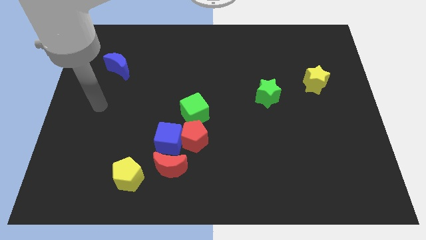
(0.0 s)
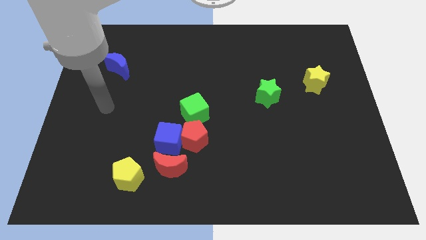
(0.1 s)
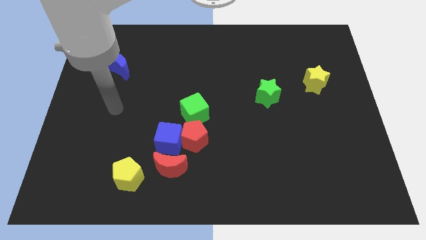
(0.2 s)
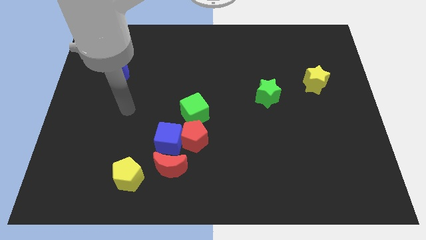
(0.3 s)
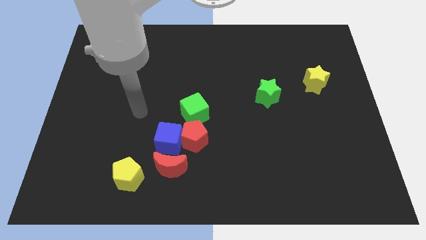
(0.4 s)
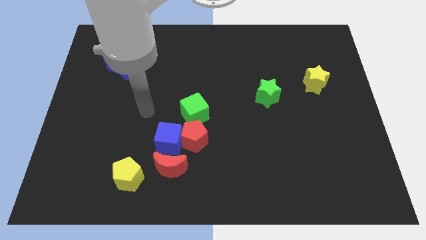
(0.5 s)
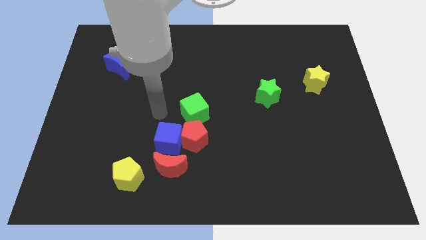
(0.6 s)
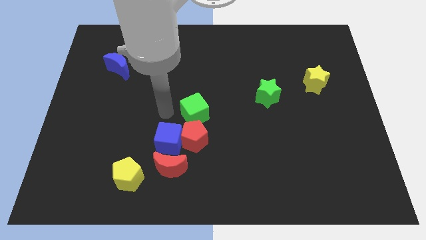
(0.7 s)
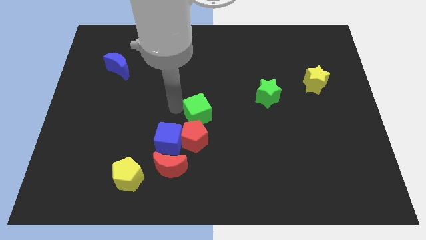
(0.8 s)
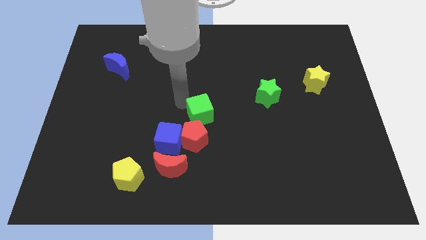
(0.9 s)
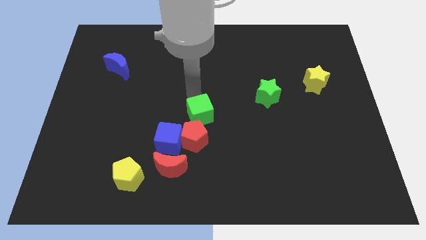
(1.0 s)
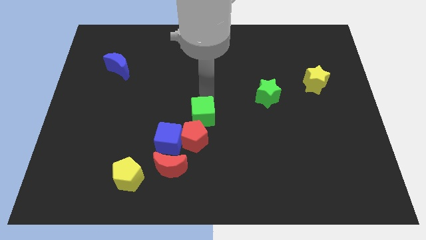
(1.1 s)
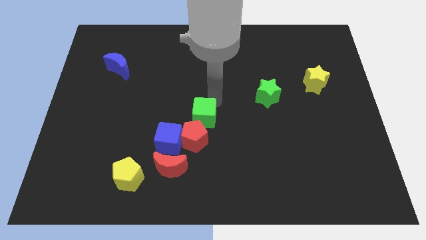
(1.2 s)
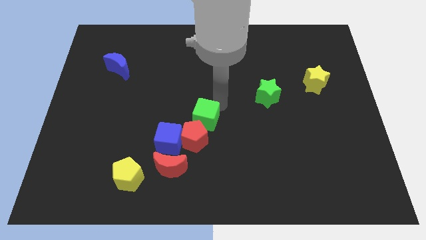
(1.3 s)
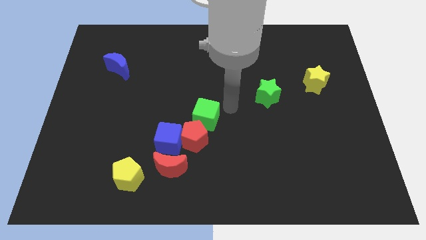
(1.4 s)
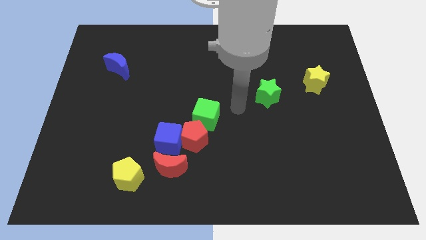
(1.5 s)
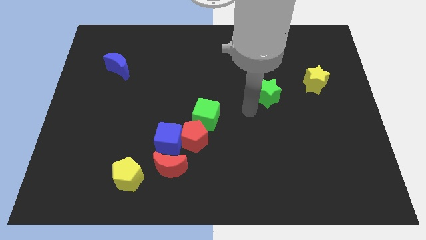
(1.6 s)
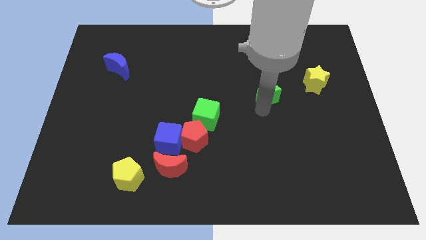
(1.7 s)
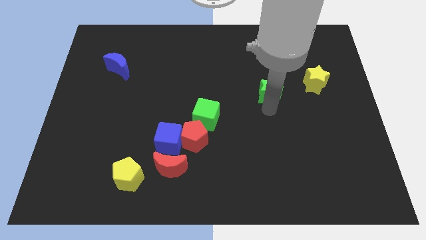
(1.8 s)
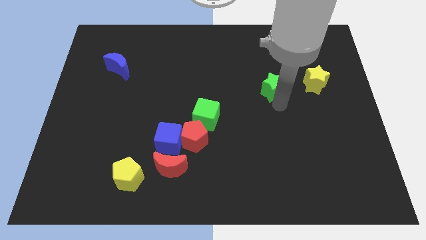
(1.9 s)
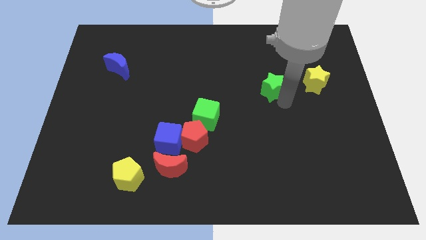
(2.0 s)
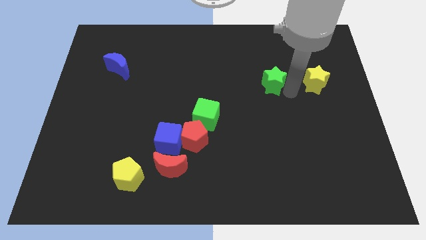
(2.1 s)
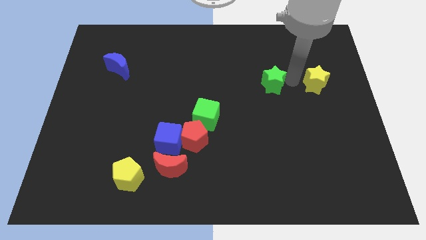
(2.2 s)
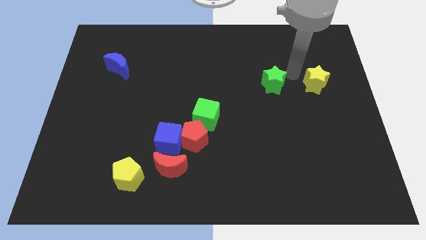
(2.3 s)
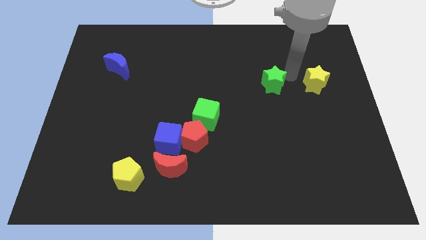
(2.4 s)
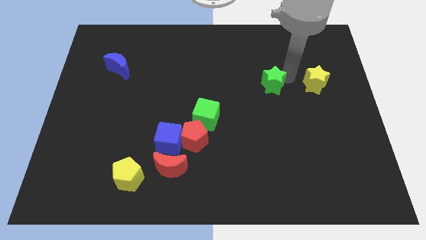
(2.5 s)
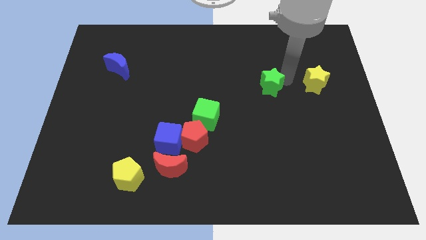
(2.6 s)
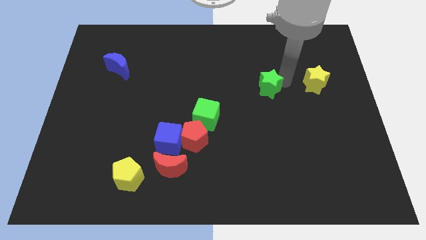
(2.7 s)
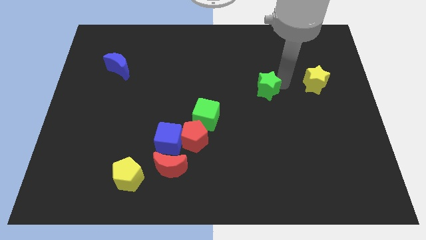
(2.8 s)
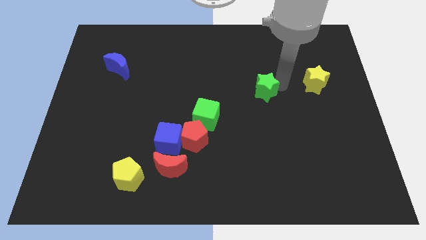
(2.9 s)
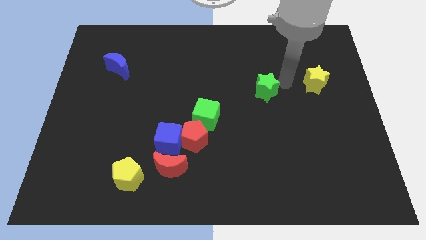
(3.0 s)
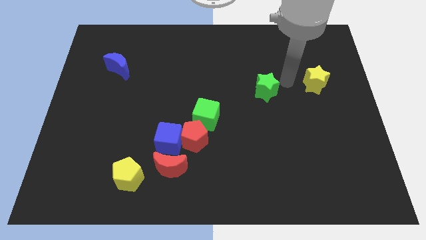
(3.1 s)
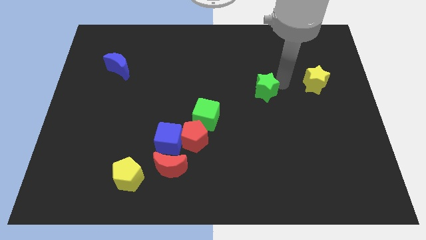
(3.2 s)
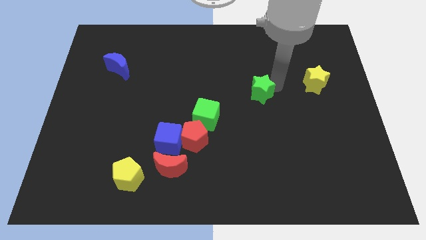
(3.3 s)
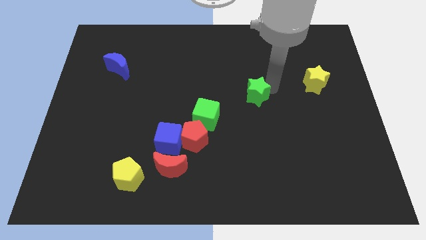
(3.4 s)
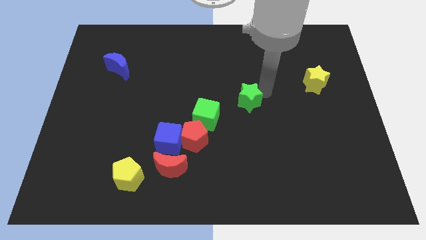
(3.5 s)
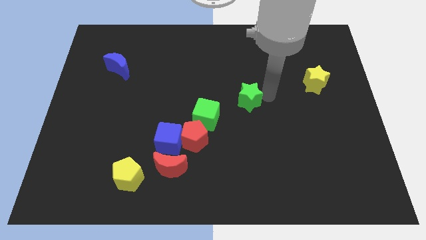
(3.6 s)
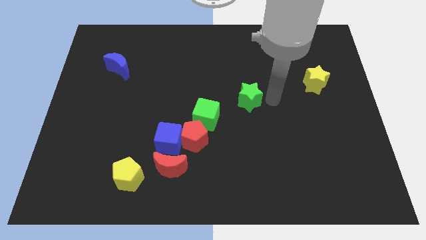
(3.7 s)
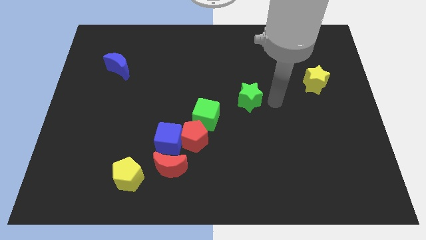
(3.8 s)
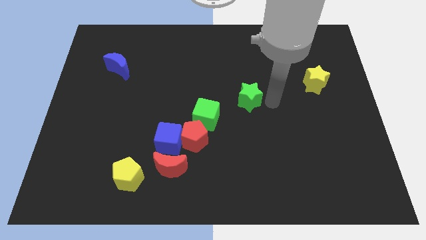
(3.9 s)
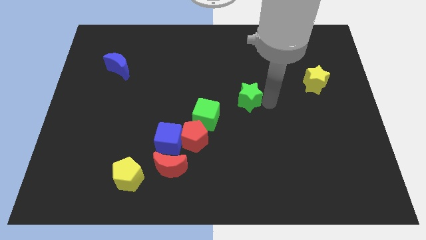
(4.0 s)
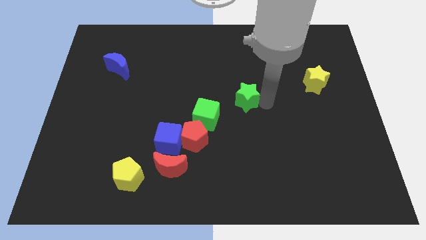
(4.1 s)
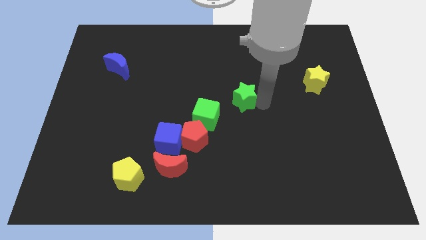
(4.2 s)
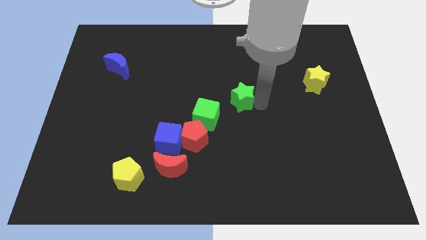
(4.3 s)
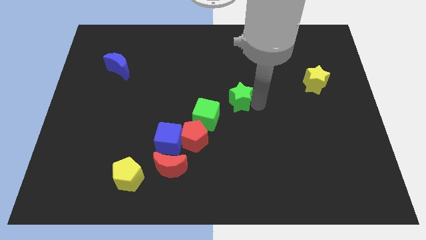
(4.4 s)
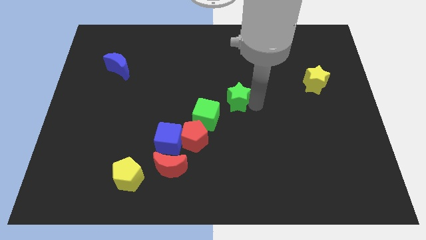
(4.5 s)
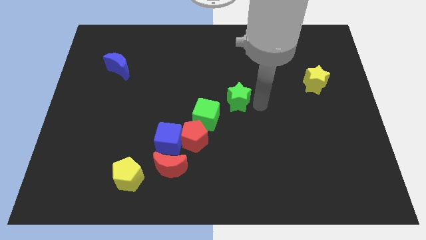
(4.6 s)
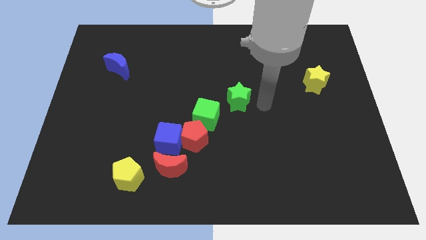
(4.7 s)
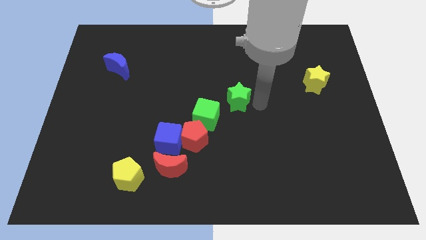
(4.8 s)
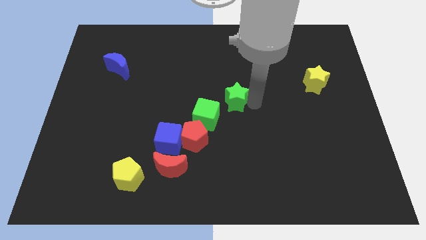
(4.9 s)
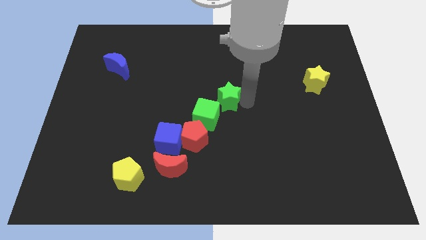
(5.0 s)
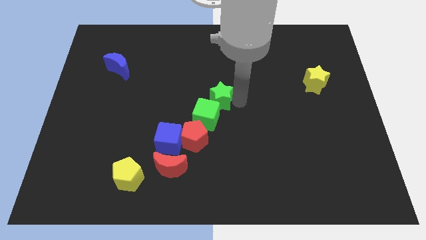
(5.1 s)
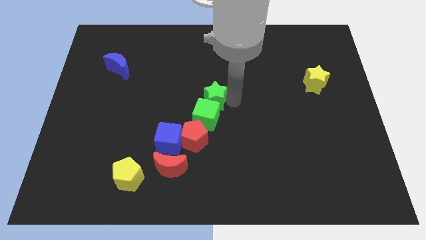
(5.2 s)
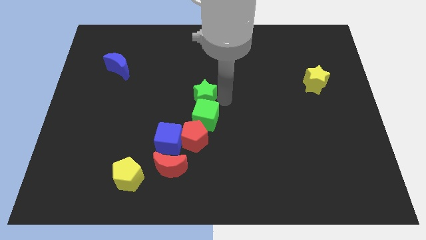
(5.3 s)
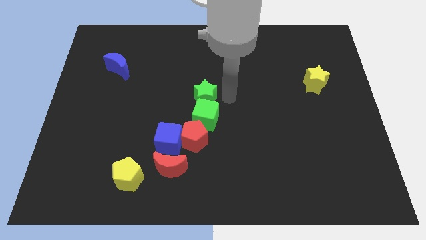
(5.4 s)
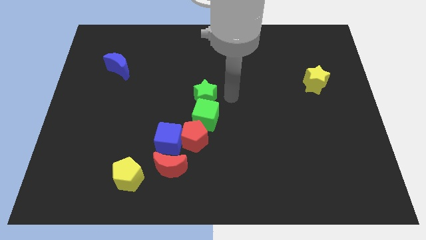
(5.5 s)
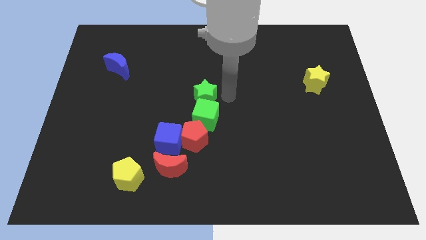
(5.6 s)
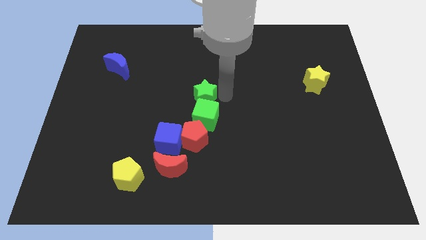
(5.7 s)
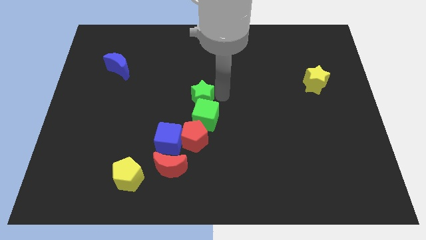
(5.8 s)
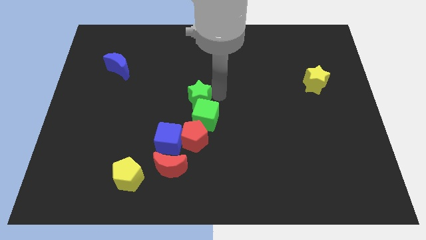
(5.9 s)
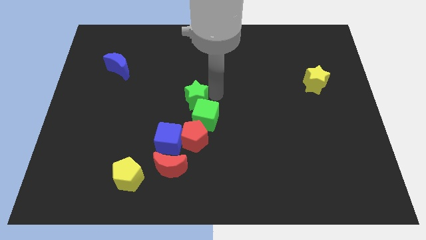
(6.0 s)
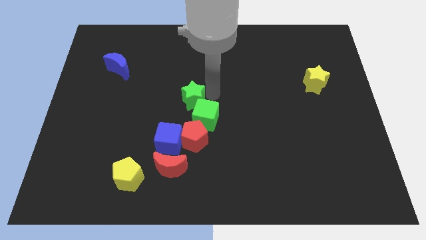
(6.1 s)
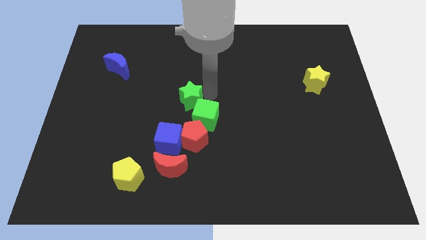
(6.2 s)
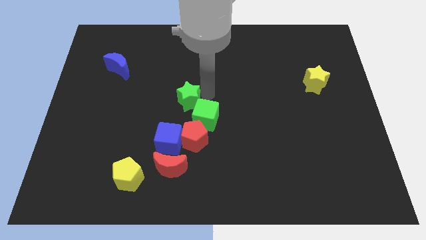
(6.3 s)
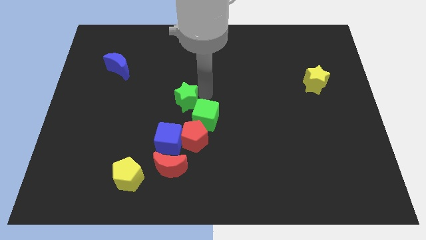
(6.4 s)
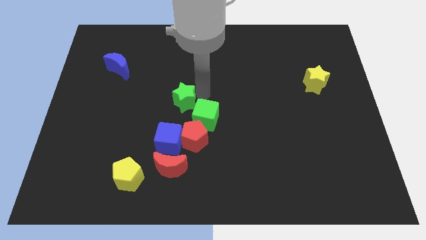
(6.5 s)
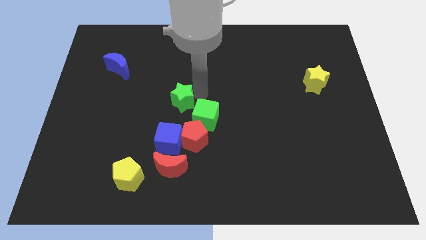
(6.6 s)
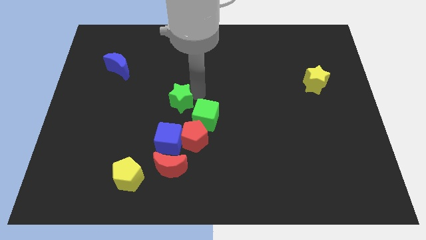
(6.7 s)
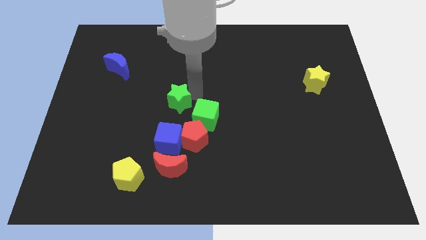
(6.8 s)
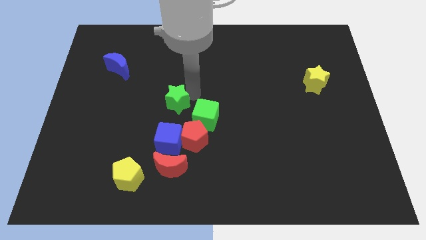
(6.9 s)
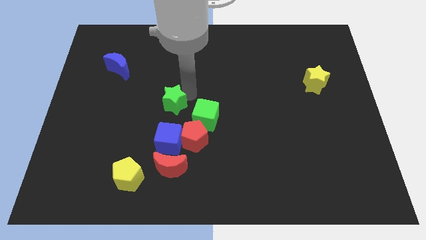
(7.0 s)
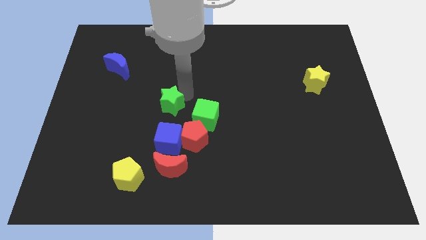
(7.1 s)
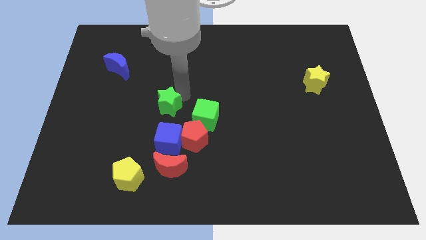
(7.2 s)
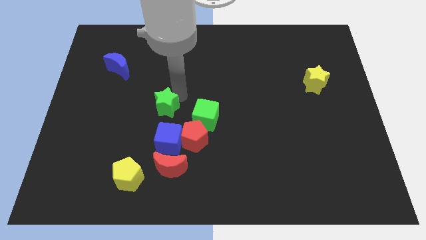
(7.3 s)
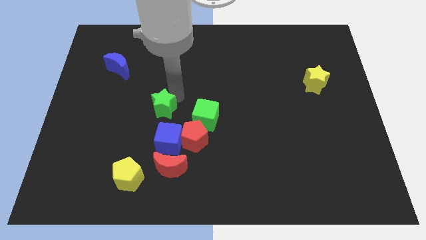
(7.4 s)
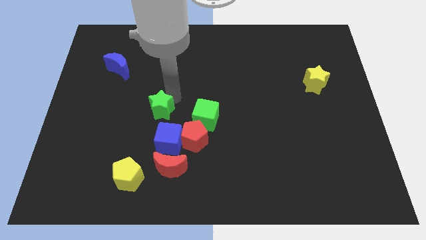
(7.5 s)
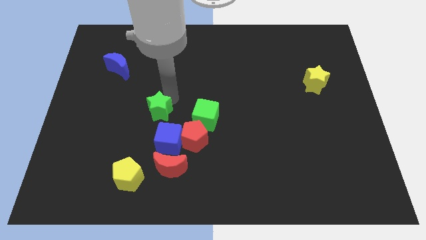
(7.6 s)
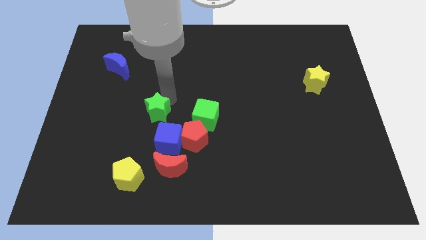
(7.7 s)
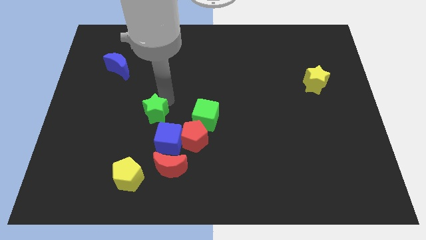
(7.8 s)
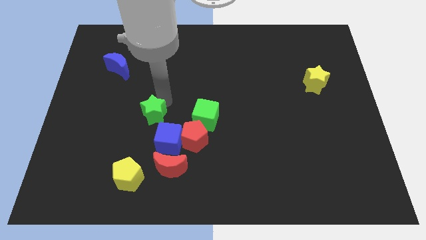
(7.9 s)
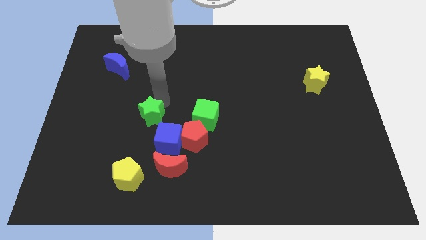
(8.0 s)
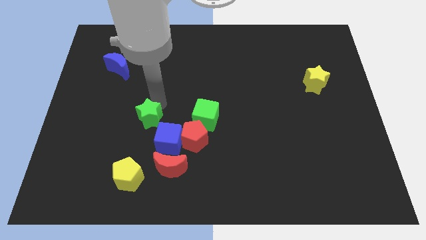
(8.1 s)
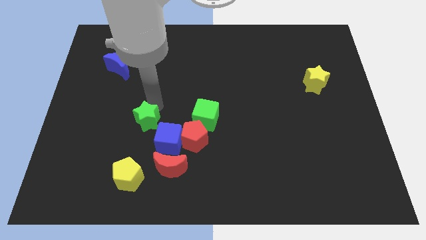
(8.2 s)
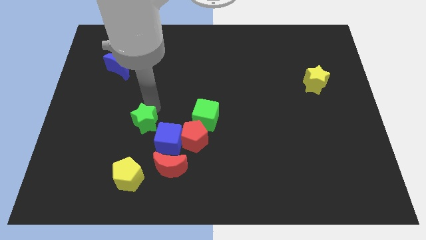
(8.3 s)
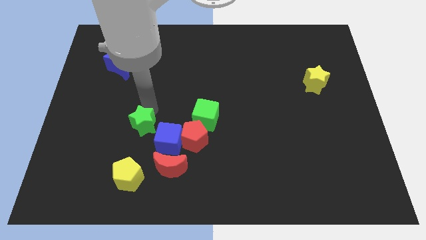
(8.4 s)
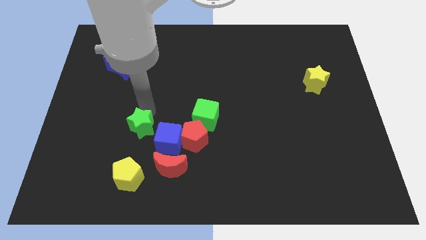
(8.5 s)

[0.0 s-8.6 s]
move the green star to the top left side of the red moon
